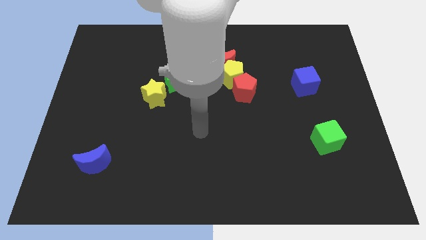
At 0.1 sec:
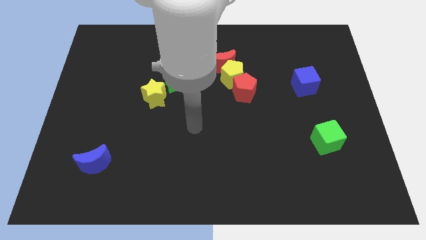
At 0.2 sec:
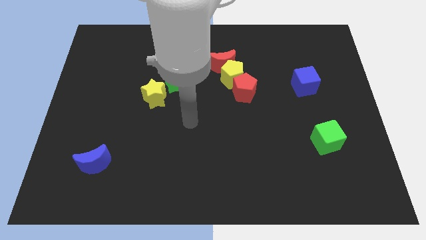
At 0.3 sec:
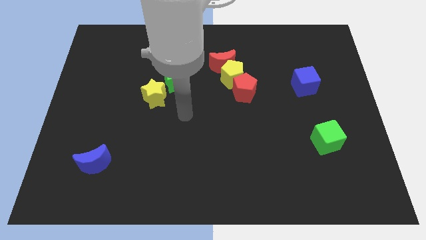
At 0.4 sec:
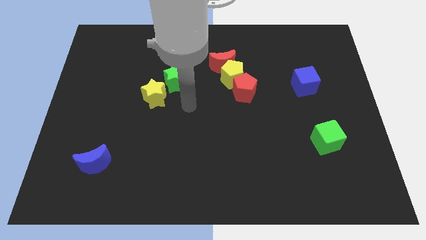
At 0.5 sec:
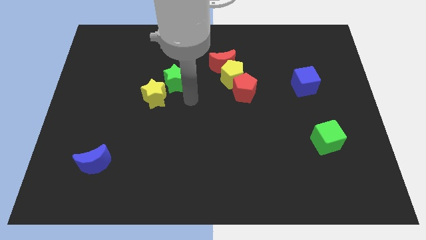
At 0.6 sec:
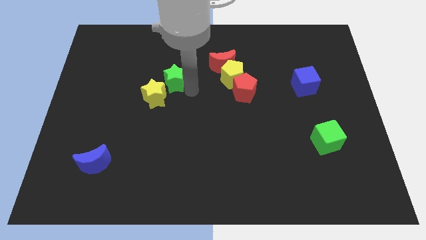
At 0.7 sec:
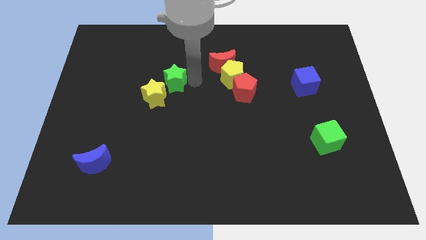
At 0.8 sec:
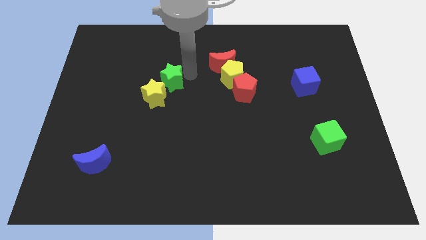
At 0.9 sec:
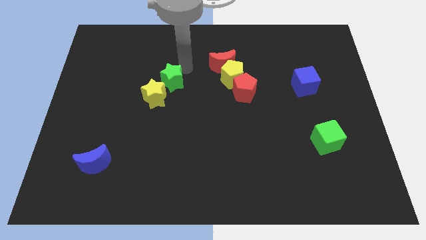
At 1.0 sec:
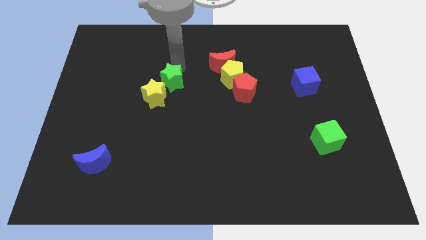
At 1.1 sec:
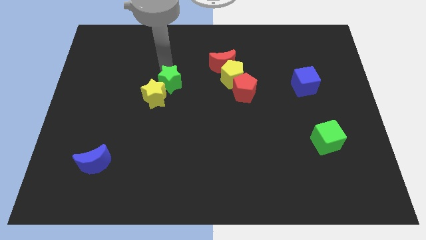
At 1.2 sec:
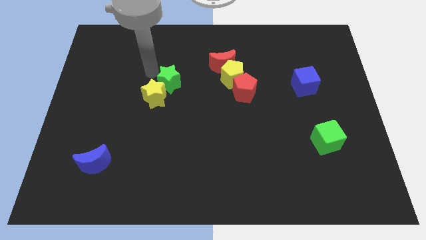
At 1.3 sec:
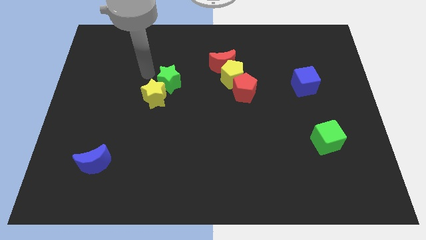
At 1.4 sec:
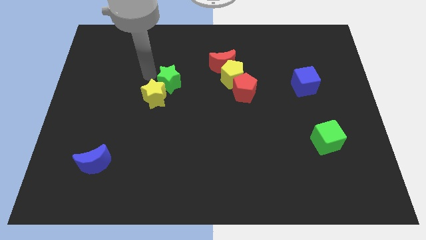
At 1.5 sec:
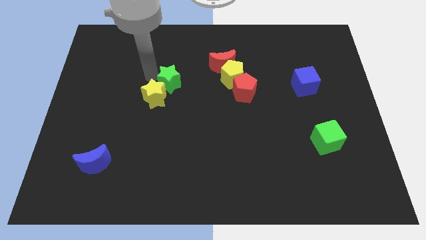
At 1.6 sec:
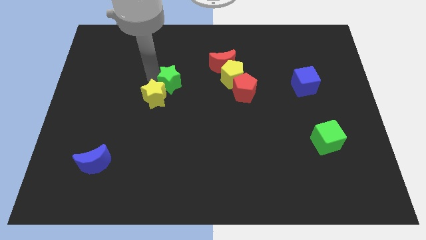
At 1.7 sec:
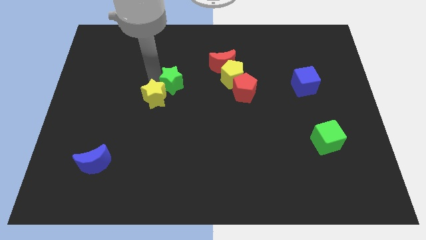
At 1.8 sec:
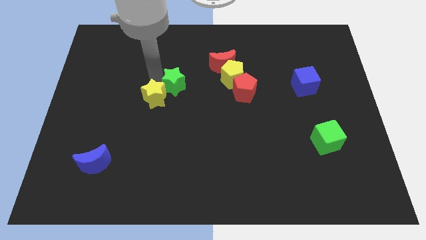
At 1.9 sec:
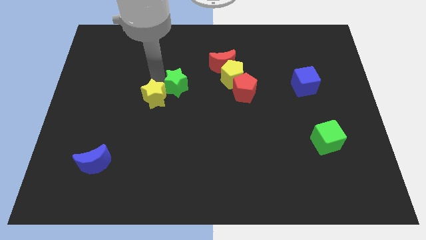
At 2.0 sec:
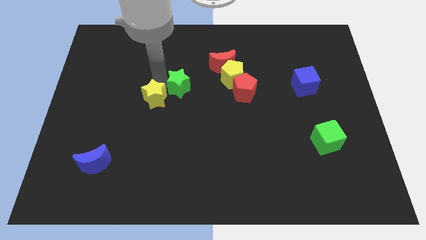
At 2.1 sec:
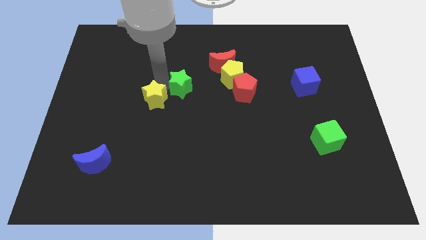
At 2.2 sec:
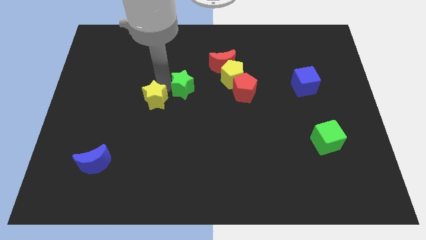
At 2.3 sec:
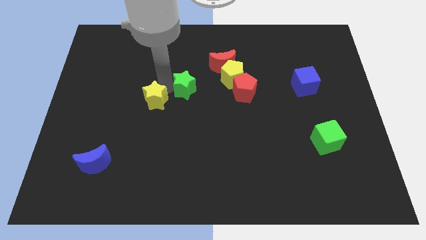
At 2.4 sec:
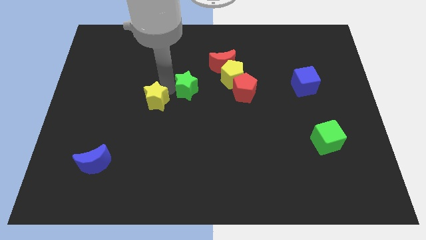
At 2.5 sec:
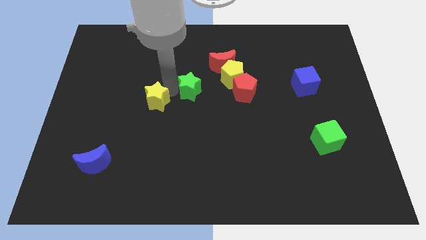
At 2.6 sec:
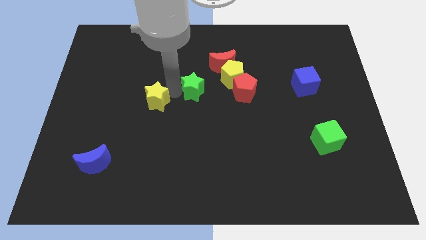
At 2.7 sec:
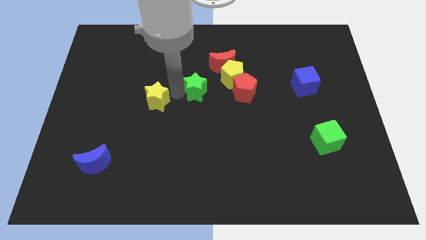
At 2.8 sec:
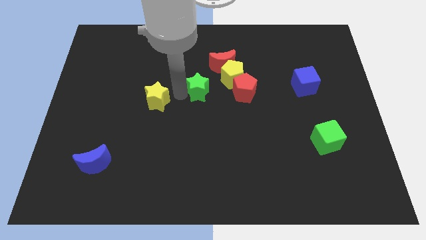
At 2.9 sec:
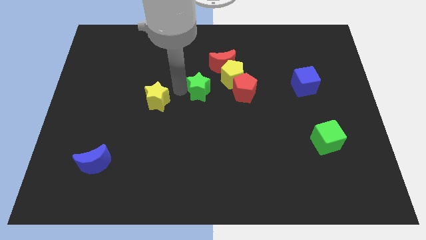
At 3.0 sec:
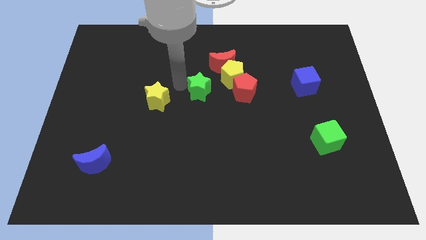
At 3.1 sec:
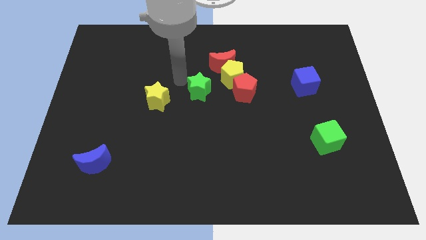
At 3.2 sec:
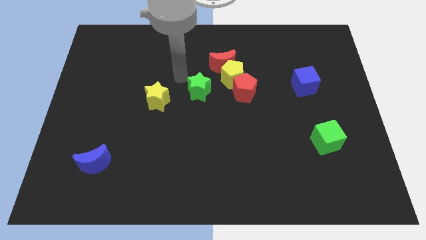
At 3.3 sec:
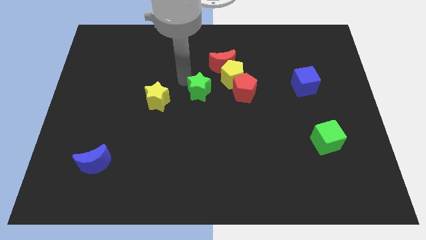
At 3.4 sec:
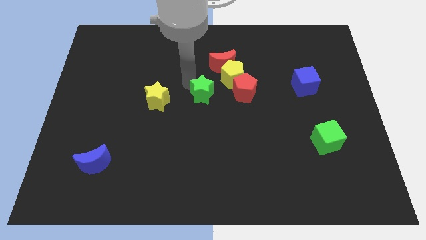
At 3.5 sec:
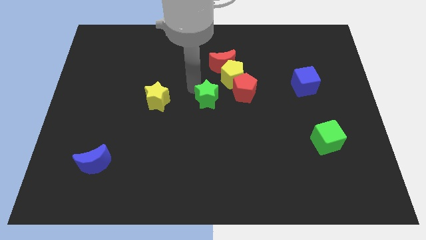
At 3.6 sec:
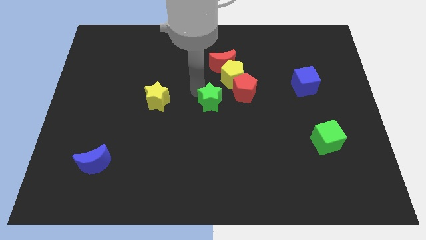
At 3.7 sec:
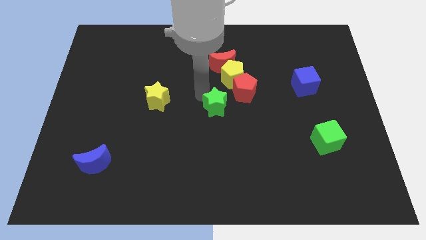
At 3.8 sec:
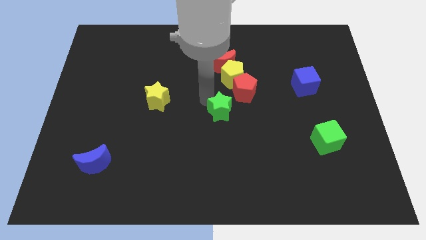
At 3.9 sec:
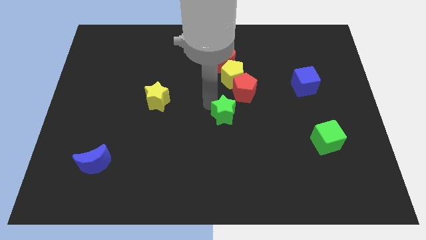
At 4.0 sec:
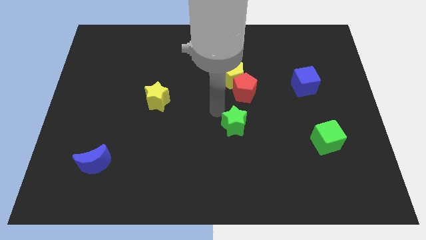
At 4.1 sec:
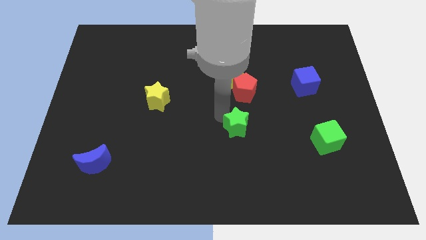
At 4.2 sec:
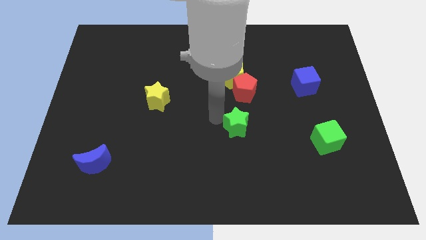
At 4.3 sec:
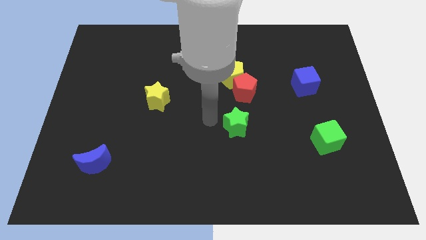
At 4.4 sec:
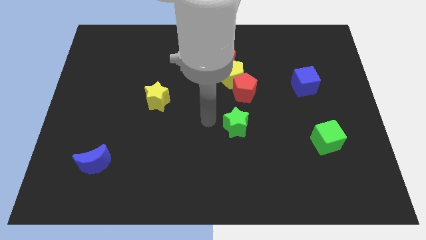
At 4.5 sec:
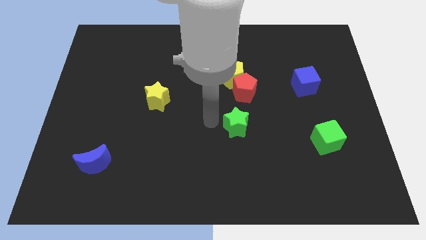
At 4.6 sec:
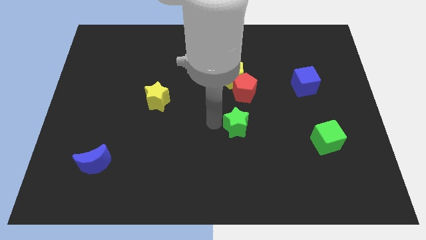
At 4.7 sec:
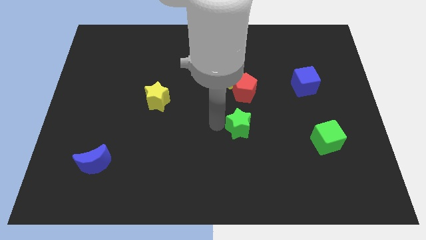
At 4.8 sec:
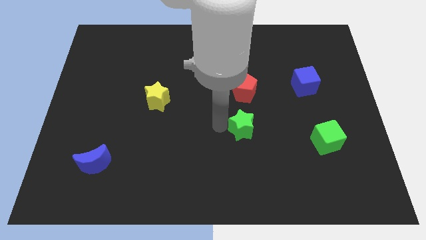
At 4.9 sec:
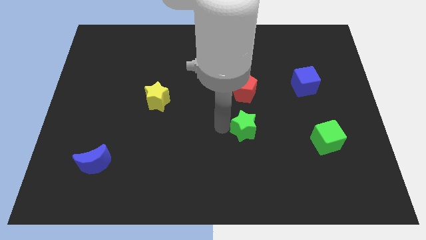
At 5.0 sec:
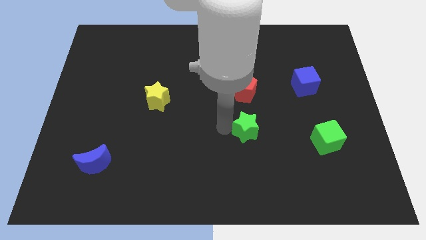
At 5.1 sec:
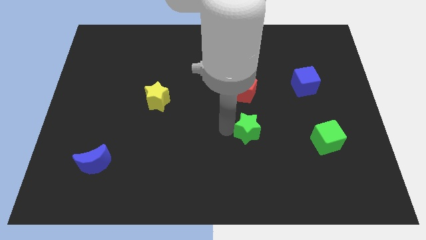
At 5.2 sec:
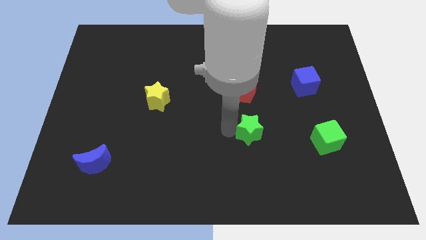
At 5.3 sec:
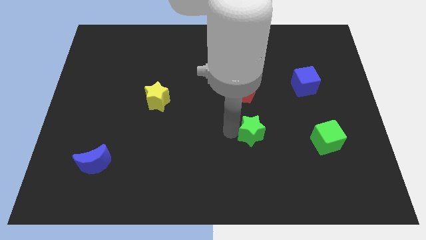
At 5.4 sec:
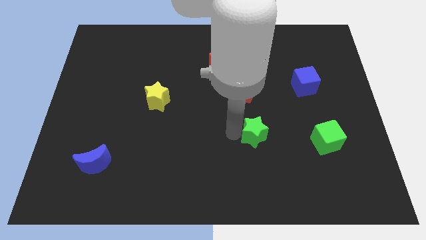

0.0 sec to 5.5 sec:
put the green star to the left side of the green cube

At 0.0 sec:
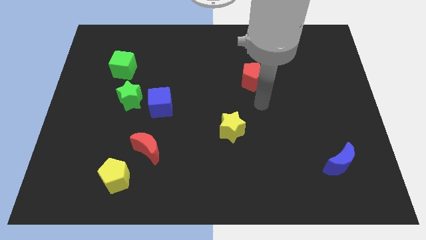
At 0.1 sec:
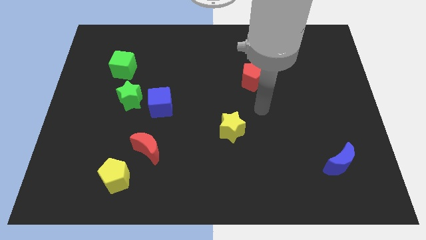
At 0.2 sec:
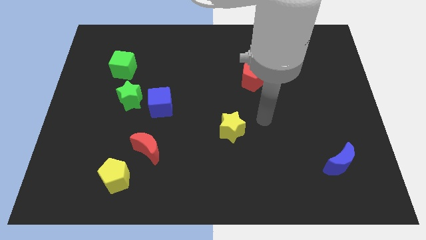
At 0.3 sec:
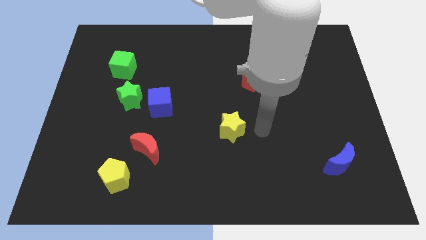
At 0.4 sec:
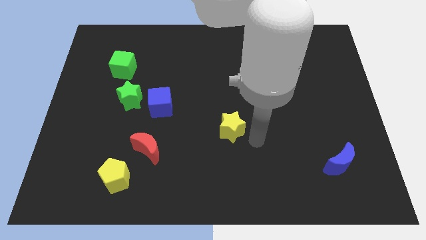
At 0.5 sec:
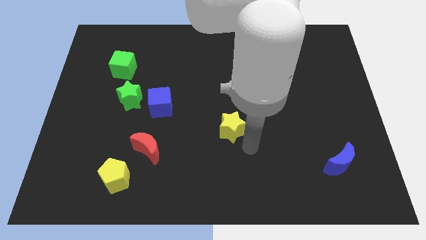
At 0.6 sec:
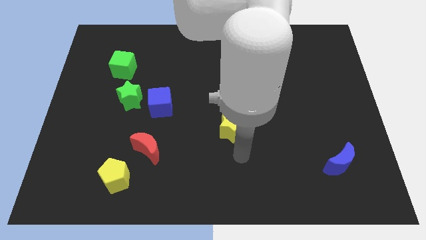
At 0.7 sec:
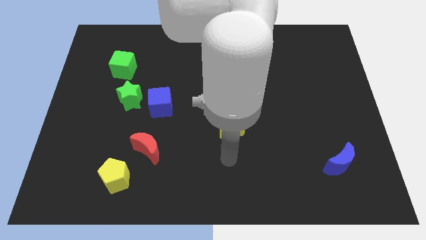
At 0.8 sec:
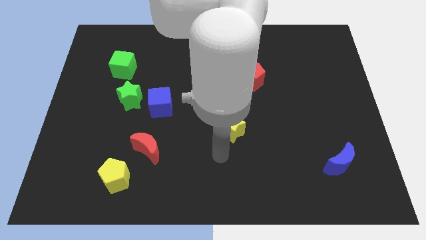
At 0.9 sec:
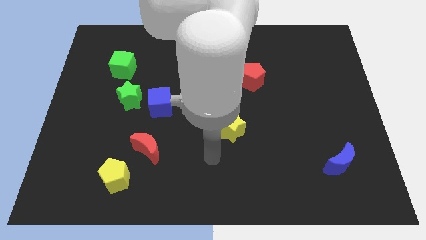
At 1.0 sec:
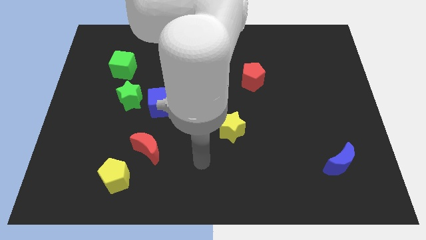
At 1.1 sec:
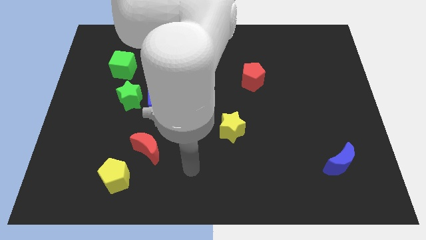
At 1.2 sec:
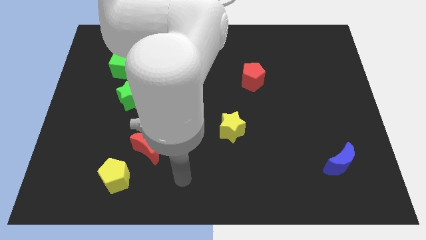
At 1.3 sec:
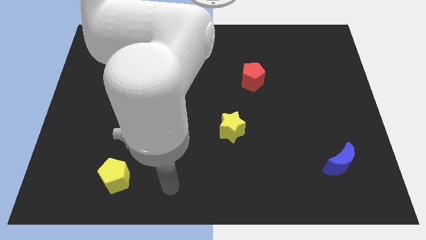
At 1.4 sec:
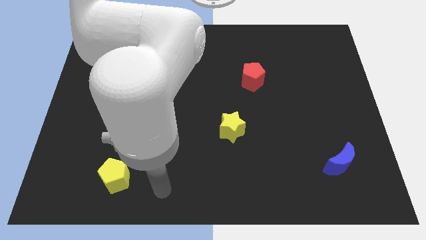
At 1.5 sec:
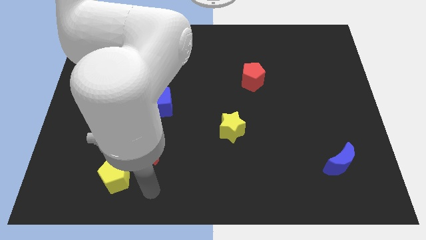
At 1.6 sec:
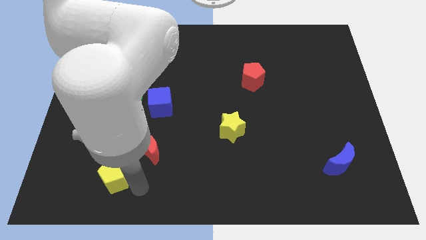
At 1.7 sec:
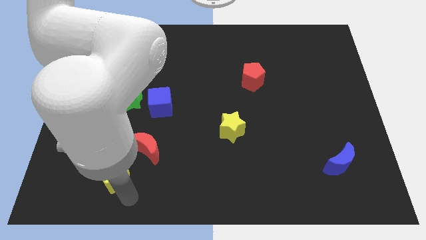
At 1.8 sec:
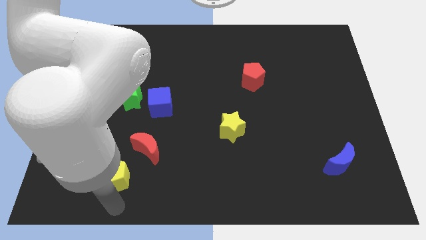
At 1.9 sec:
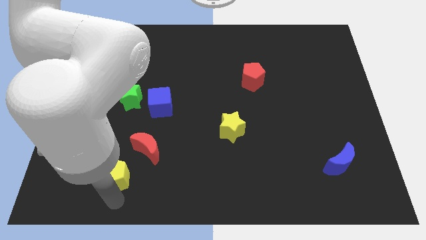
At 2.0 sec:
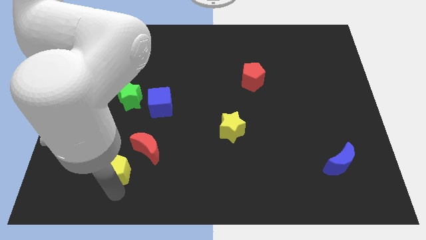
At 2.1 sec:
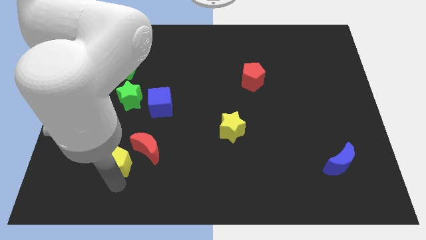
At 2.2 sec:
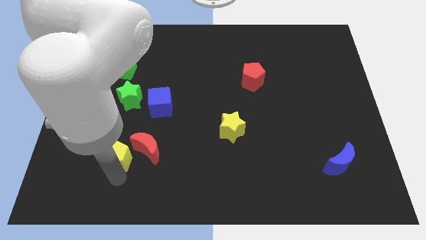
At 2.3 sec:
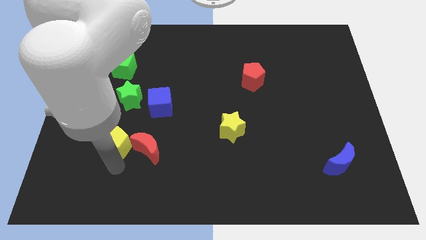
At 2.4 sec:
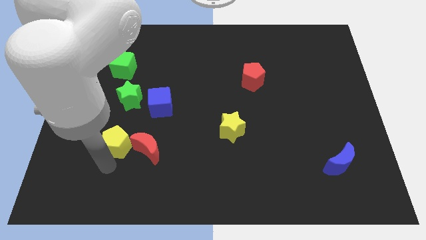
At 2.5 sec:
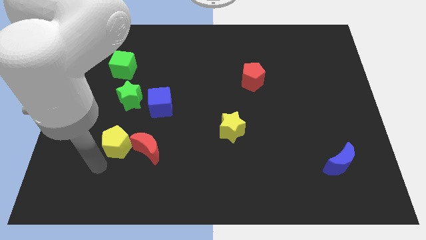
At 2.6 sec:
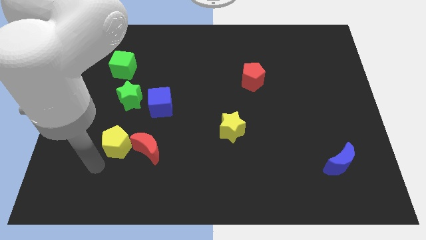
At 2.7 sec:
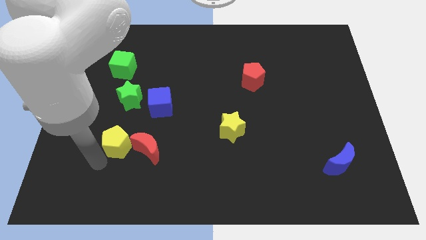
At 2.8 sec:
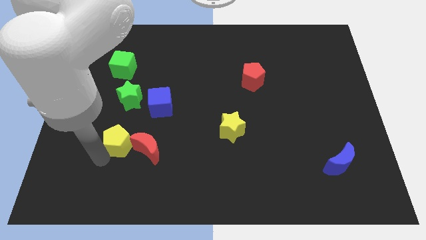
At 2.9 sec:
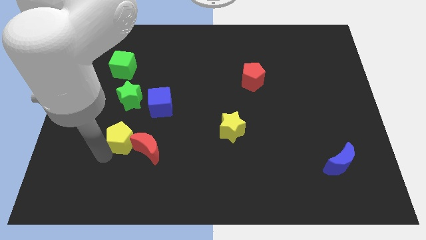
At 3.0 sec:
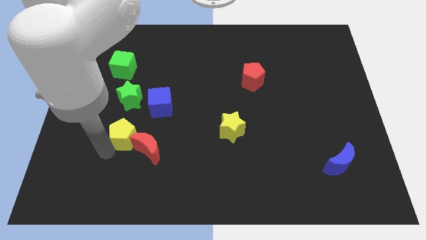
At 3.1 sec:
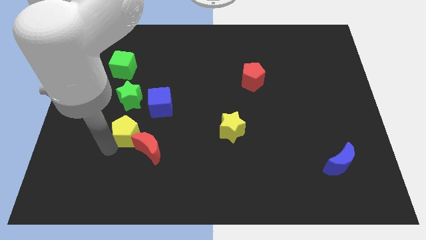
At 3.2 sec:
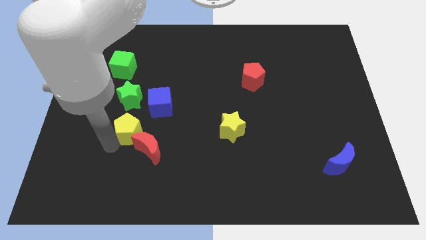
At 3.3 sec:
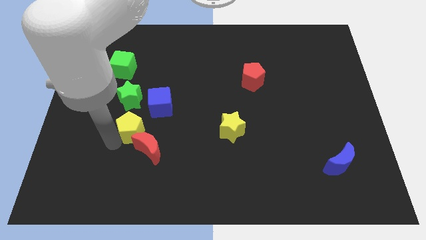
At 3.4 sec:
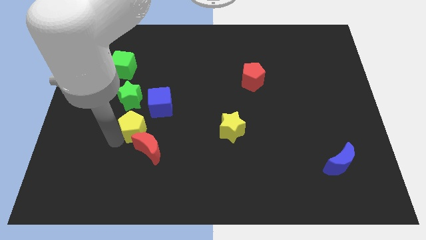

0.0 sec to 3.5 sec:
put the yellow pentagon to the bottom right of the green star
